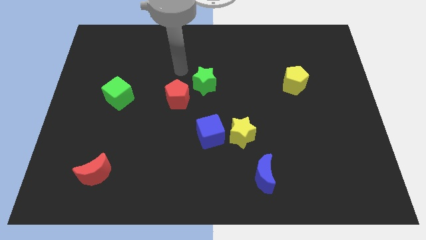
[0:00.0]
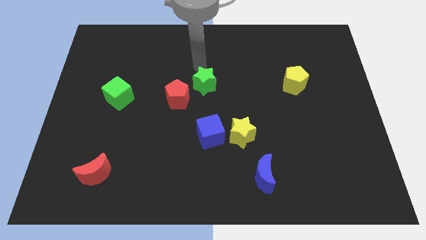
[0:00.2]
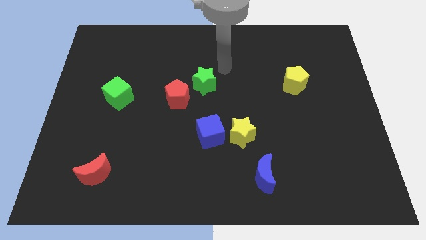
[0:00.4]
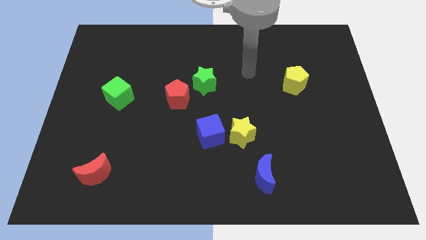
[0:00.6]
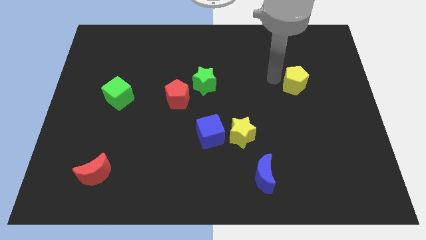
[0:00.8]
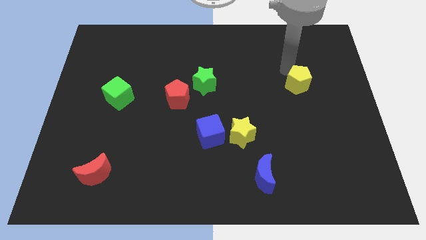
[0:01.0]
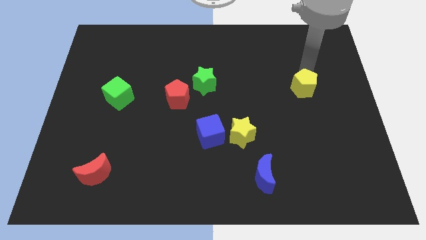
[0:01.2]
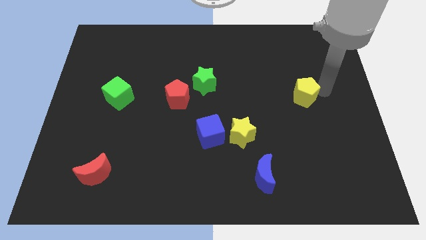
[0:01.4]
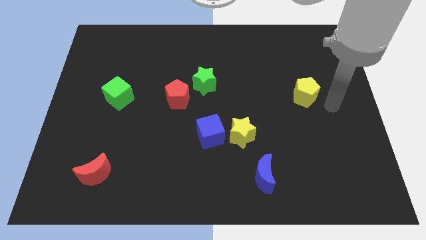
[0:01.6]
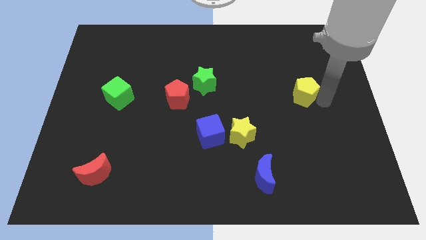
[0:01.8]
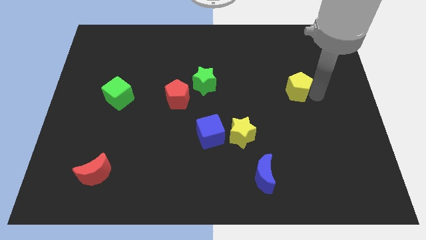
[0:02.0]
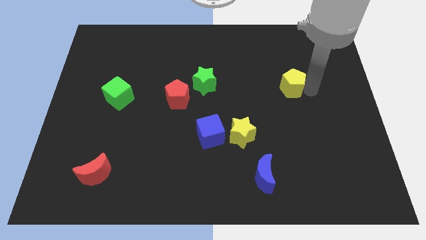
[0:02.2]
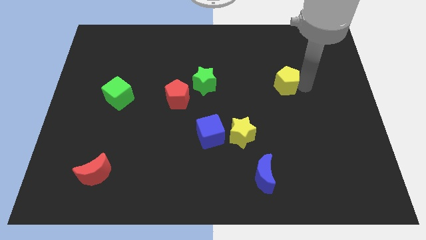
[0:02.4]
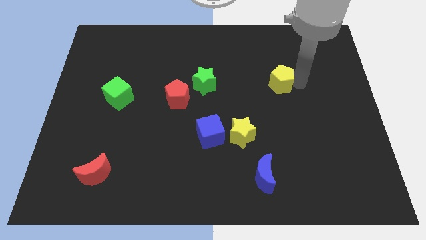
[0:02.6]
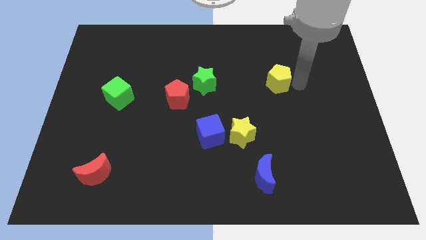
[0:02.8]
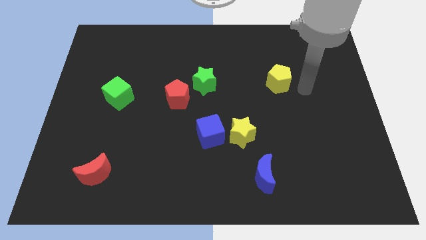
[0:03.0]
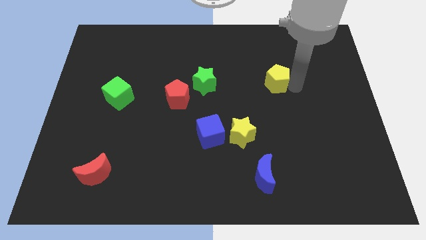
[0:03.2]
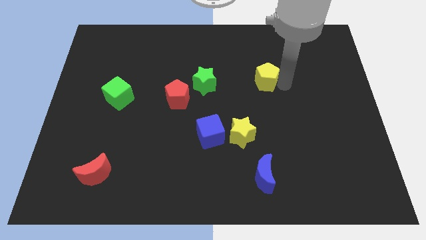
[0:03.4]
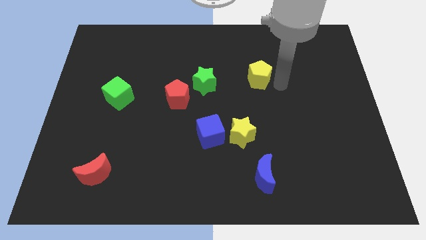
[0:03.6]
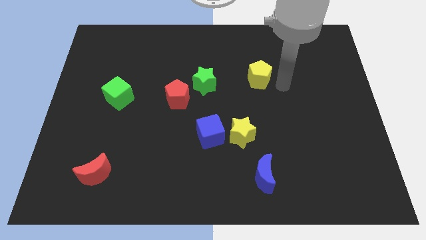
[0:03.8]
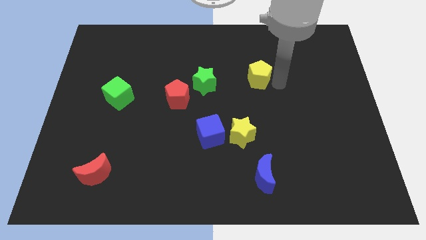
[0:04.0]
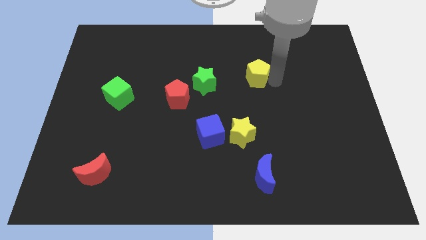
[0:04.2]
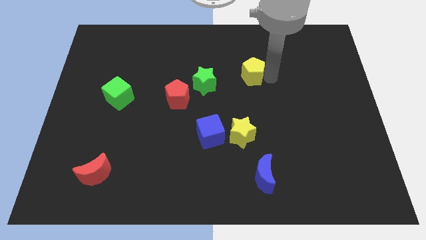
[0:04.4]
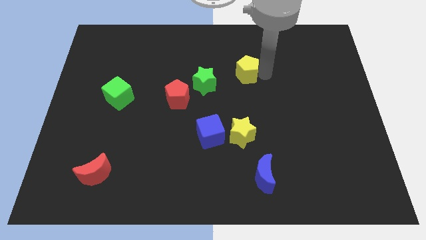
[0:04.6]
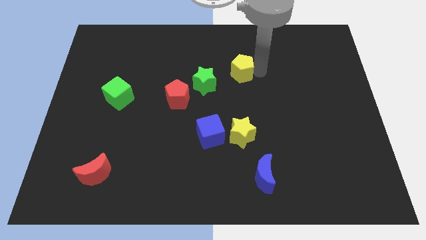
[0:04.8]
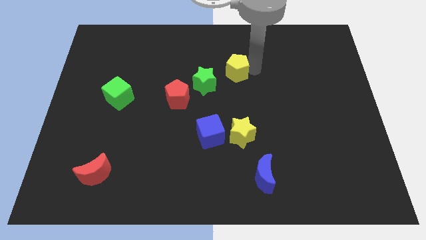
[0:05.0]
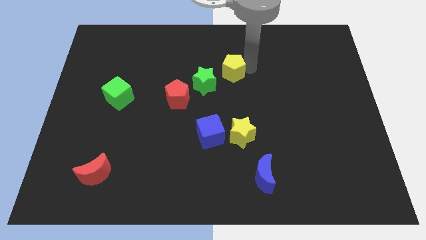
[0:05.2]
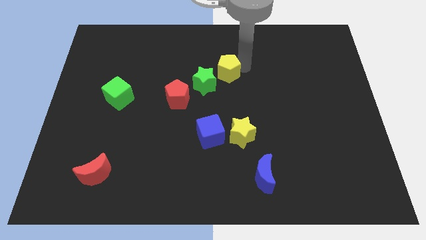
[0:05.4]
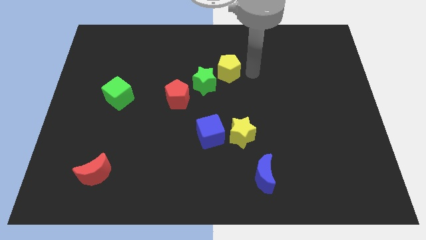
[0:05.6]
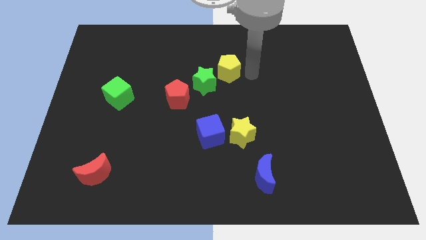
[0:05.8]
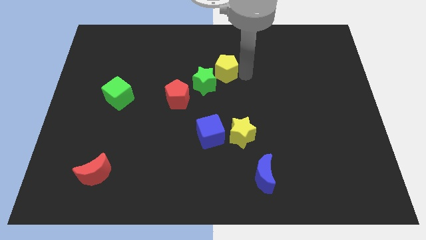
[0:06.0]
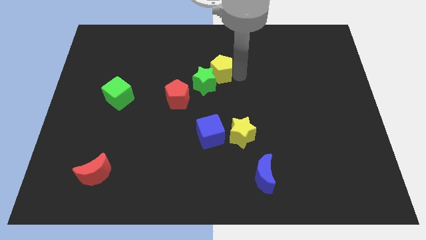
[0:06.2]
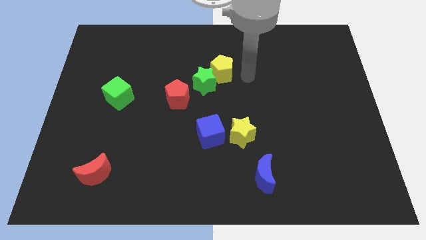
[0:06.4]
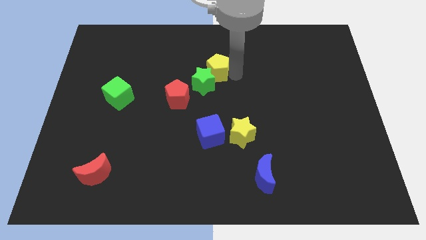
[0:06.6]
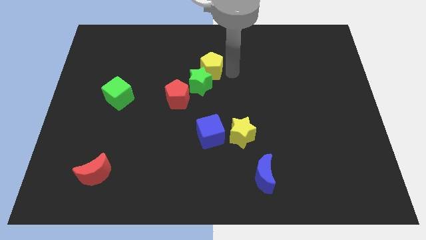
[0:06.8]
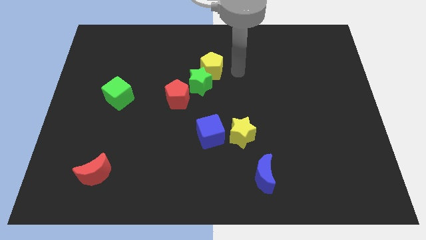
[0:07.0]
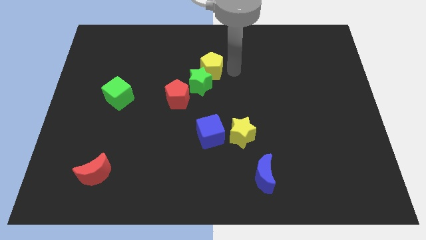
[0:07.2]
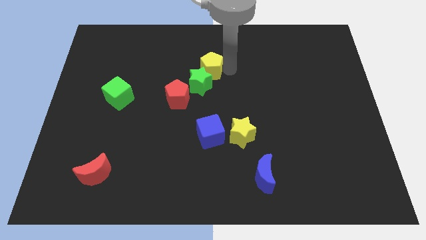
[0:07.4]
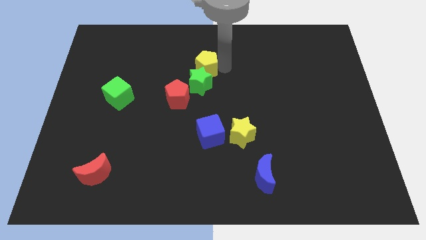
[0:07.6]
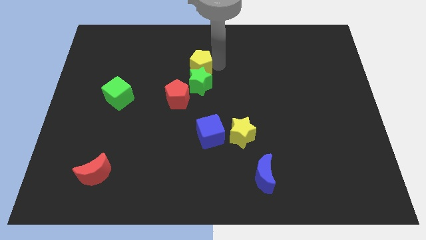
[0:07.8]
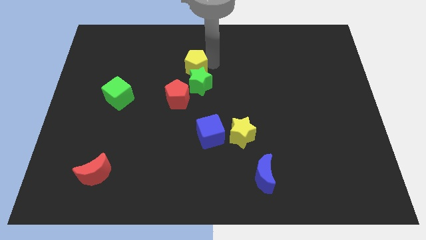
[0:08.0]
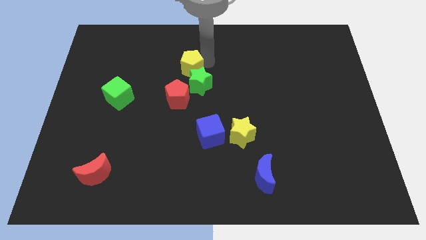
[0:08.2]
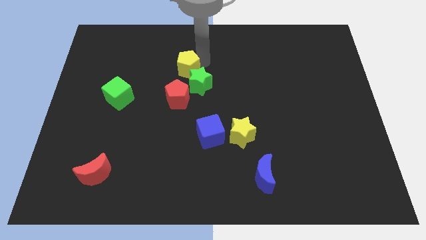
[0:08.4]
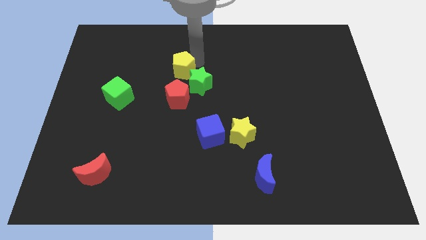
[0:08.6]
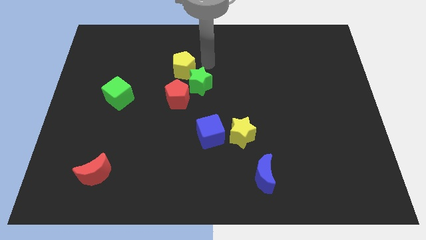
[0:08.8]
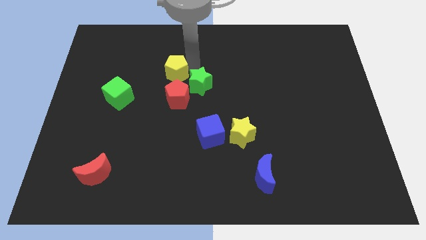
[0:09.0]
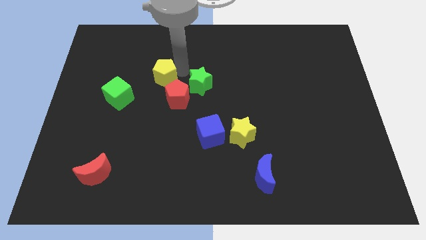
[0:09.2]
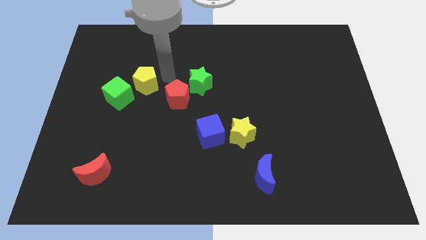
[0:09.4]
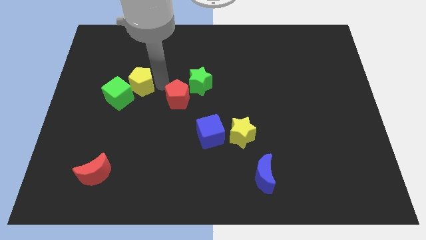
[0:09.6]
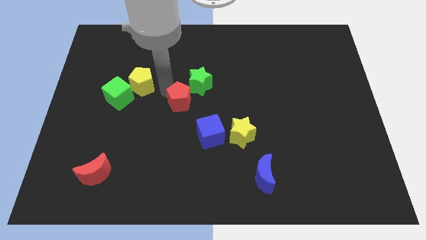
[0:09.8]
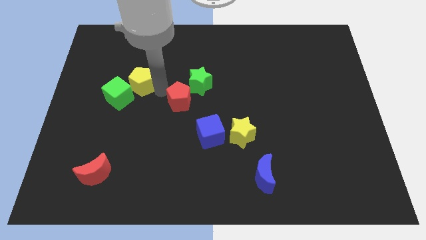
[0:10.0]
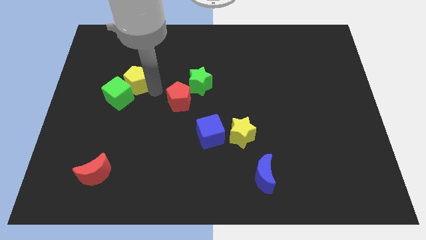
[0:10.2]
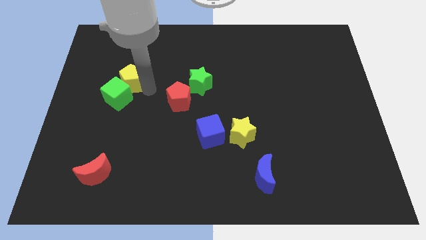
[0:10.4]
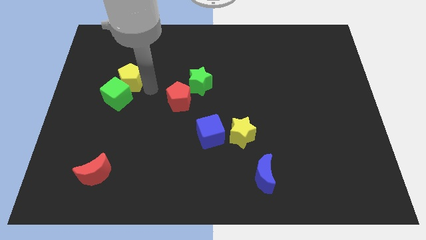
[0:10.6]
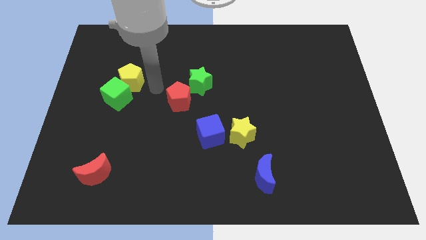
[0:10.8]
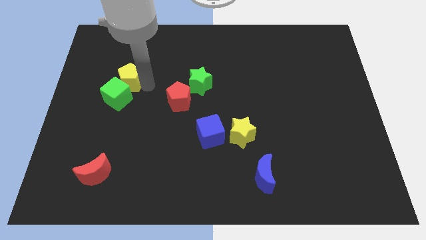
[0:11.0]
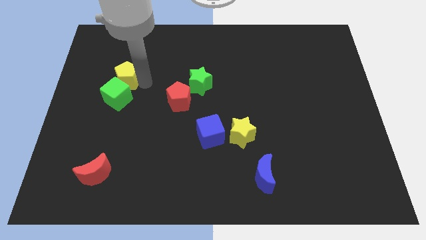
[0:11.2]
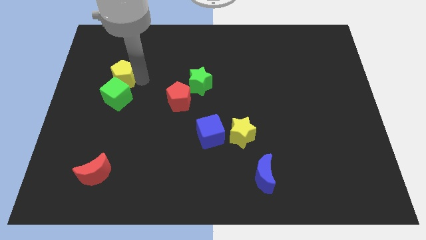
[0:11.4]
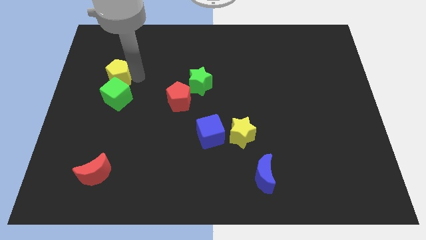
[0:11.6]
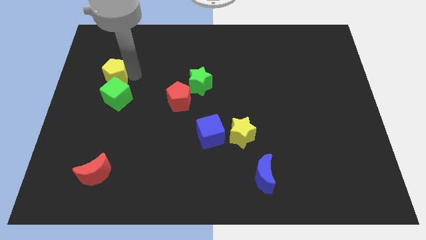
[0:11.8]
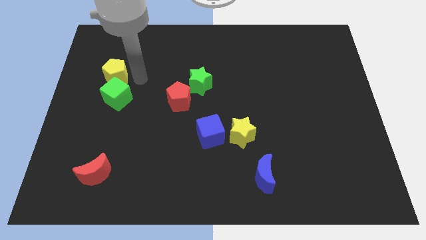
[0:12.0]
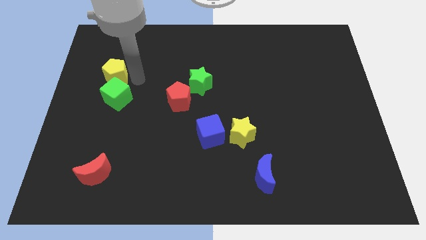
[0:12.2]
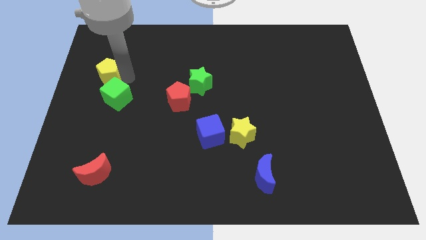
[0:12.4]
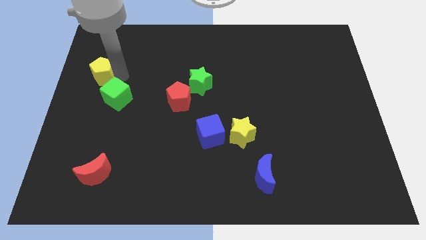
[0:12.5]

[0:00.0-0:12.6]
push the yellow pentagon to the left side

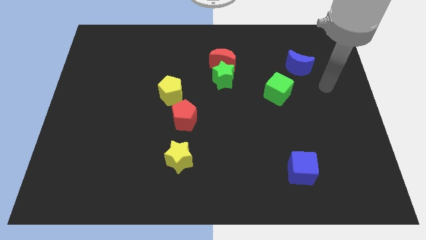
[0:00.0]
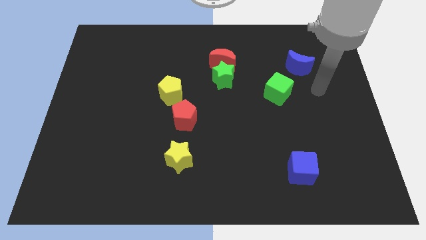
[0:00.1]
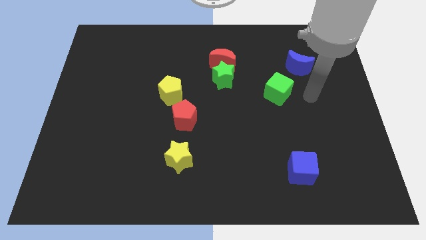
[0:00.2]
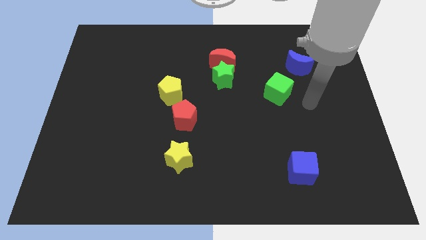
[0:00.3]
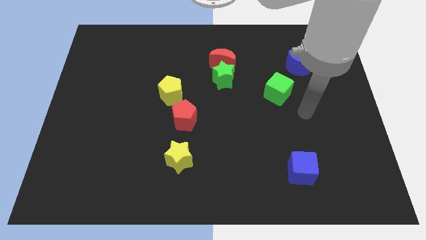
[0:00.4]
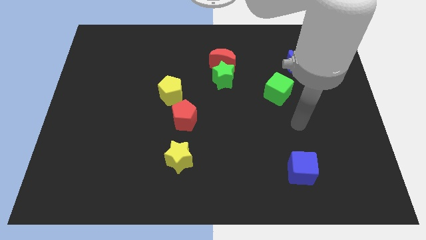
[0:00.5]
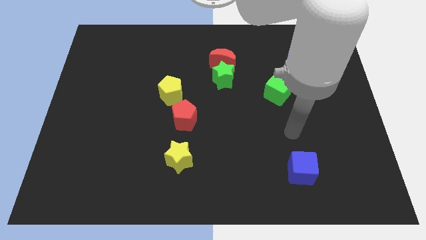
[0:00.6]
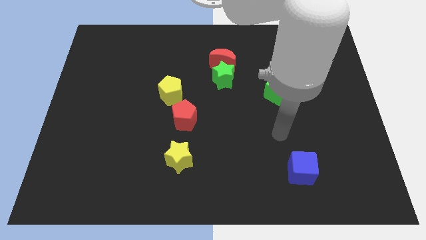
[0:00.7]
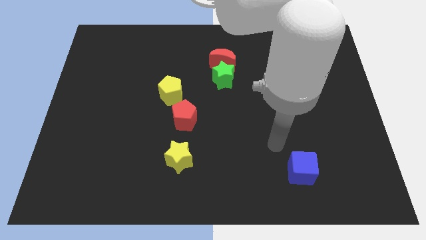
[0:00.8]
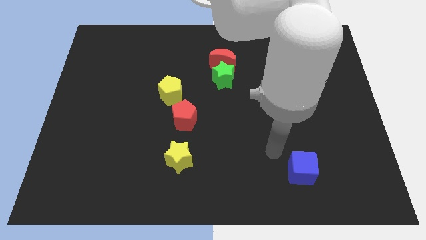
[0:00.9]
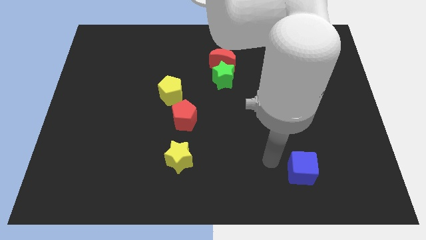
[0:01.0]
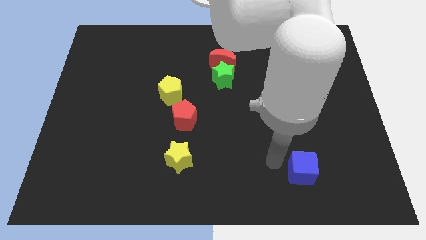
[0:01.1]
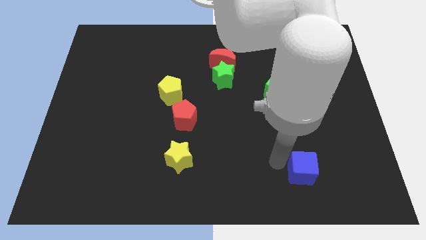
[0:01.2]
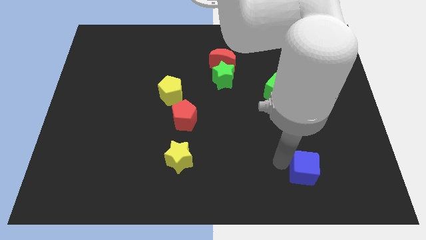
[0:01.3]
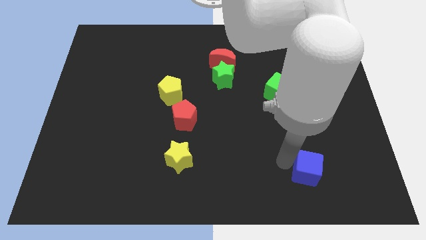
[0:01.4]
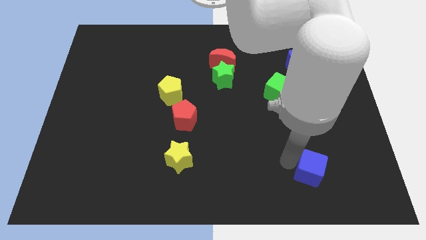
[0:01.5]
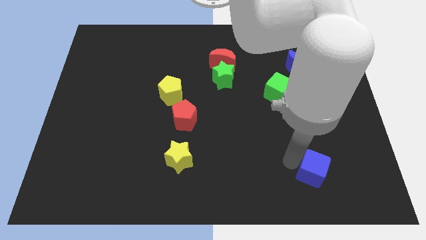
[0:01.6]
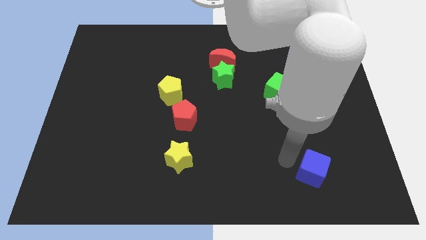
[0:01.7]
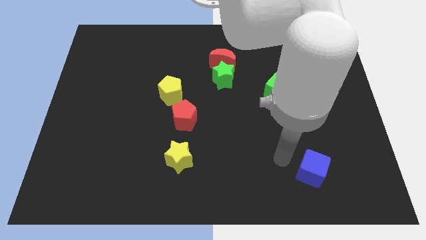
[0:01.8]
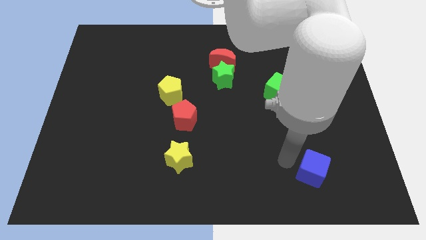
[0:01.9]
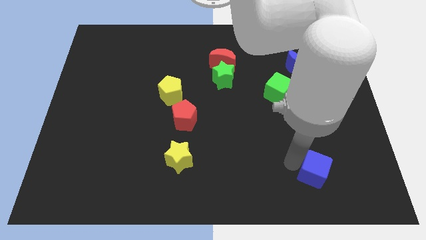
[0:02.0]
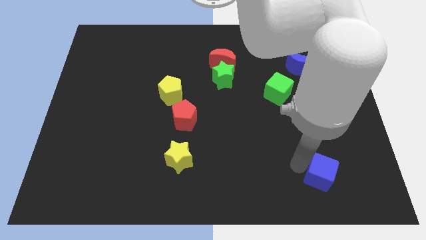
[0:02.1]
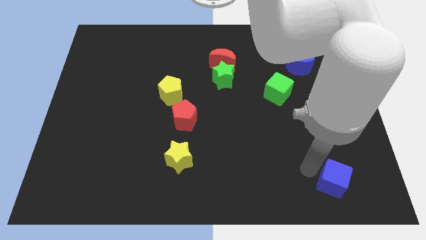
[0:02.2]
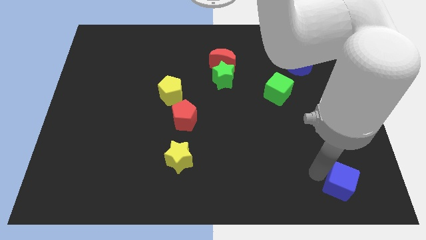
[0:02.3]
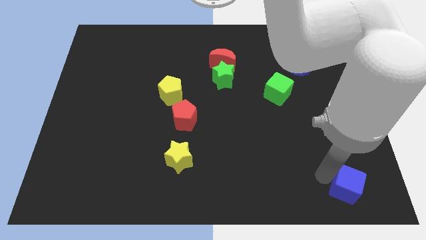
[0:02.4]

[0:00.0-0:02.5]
move the blue cube to the bottom right
